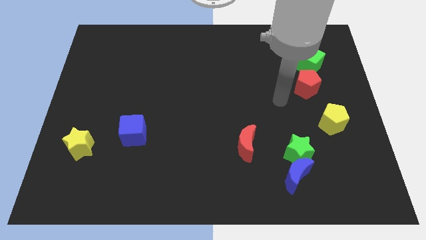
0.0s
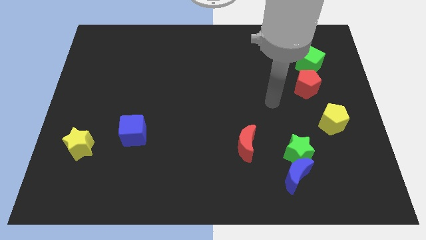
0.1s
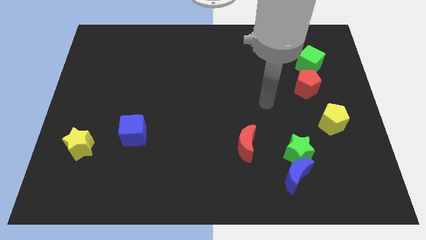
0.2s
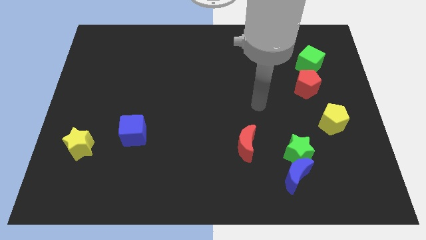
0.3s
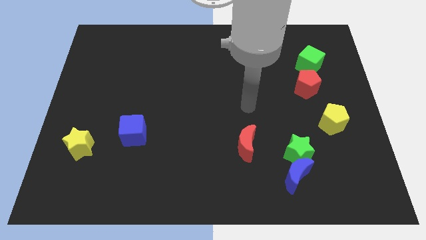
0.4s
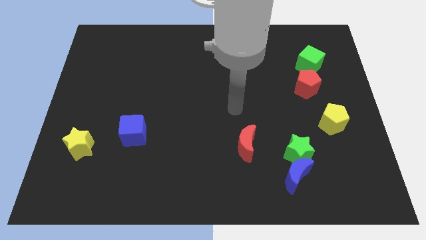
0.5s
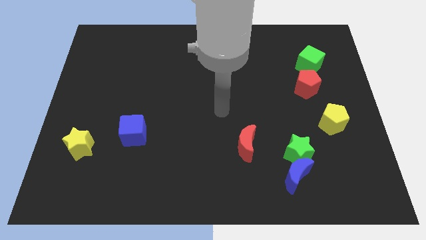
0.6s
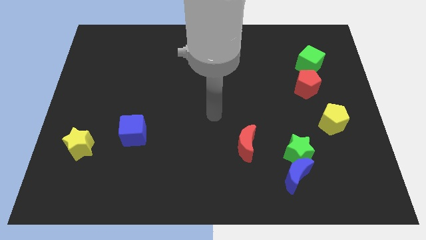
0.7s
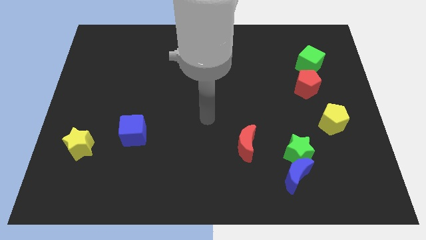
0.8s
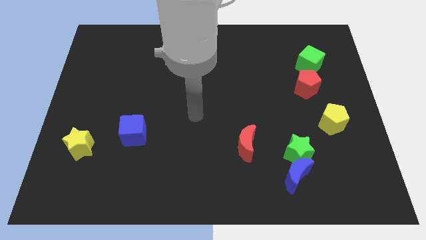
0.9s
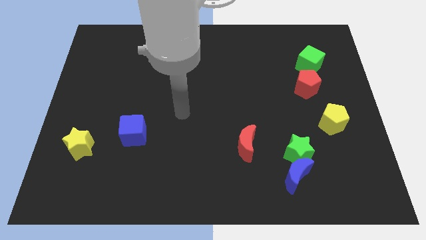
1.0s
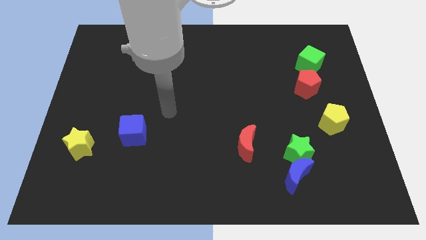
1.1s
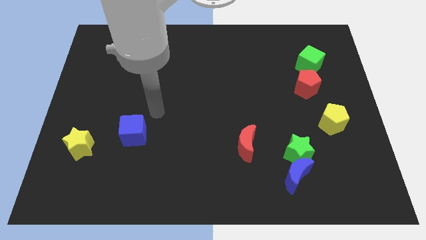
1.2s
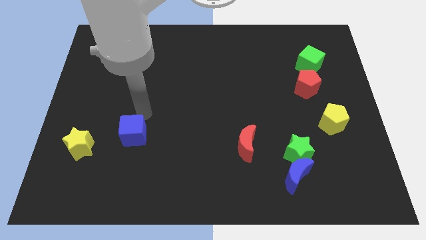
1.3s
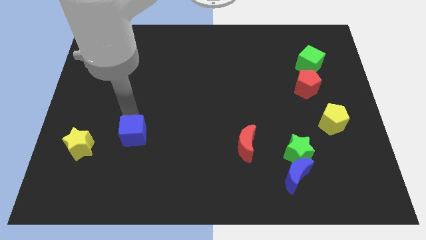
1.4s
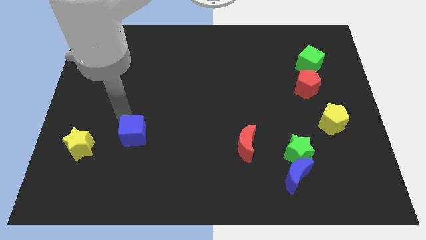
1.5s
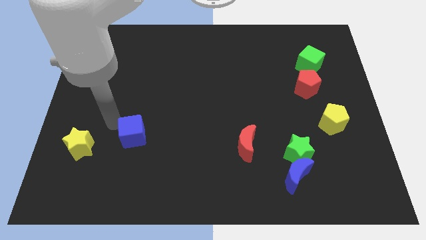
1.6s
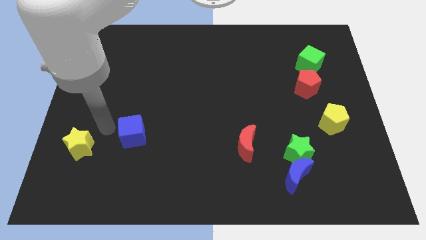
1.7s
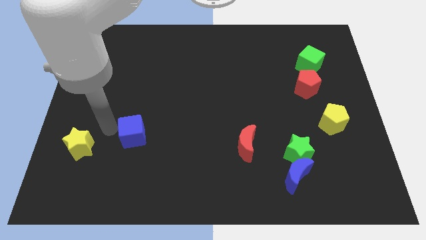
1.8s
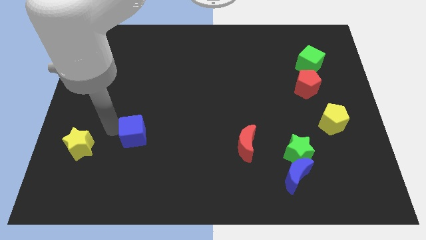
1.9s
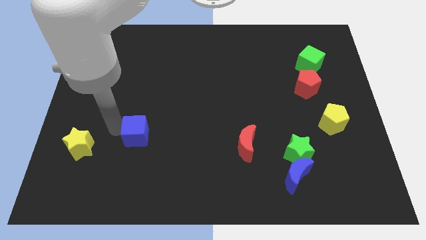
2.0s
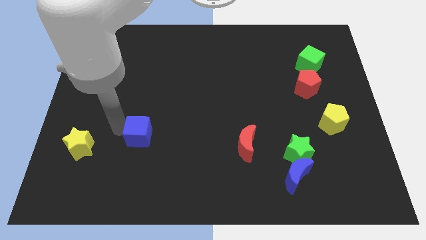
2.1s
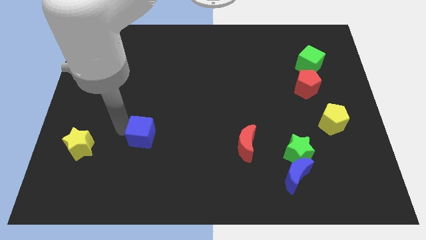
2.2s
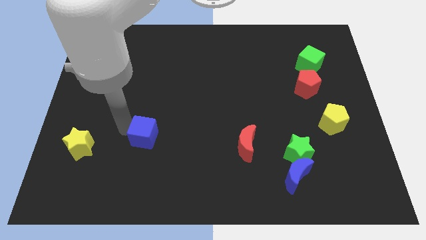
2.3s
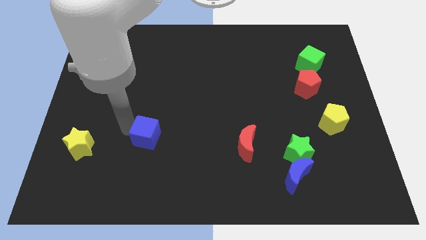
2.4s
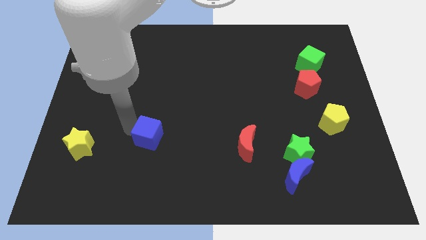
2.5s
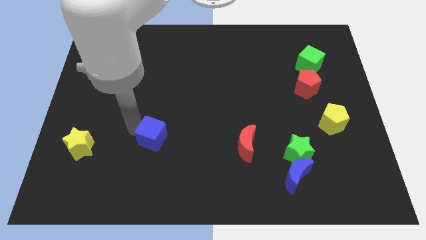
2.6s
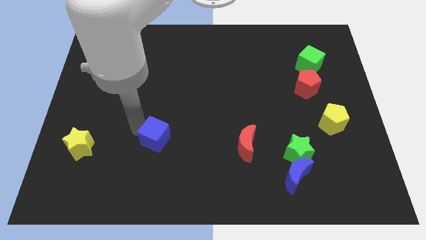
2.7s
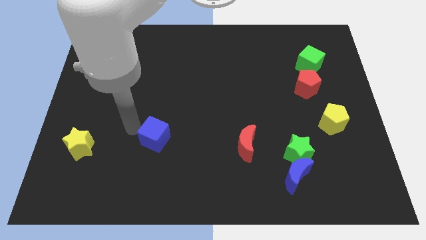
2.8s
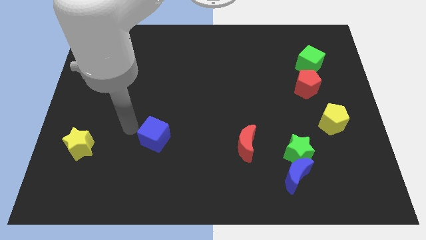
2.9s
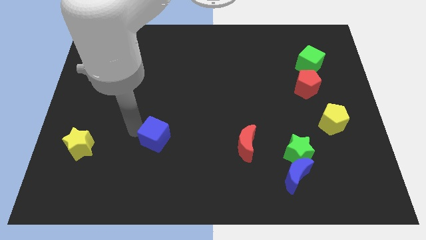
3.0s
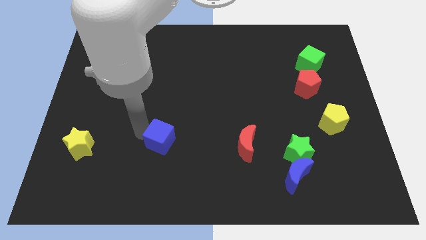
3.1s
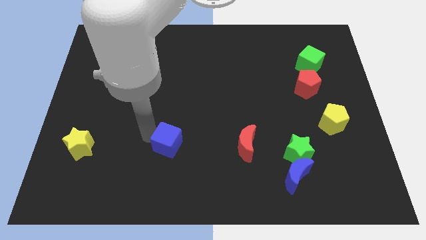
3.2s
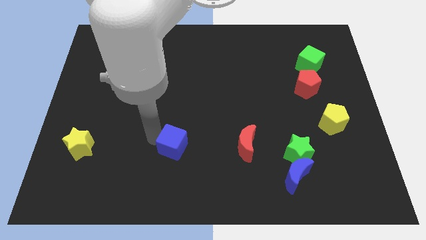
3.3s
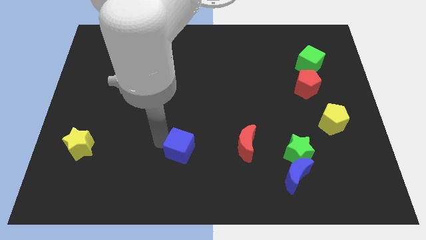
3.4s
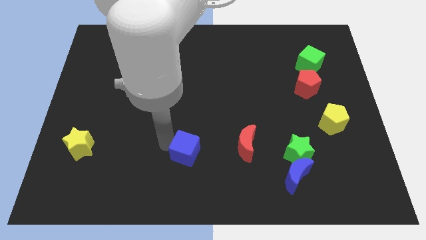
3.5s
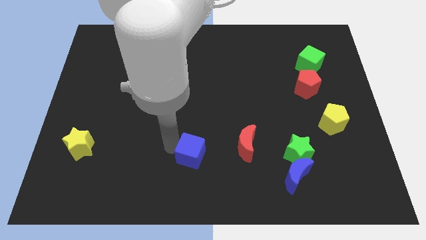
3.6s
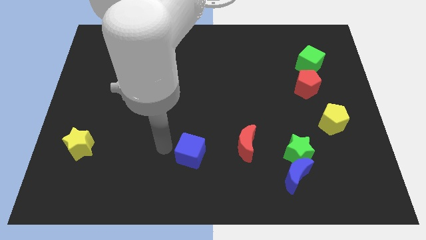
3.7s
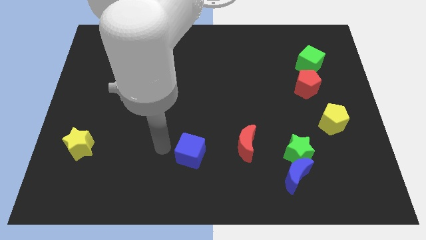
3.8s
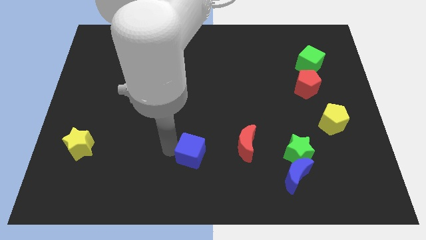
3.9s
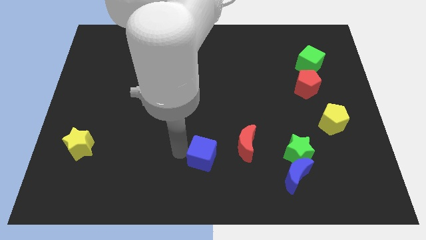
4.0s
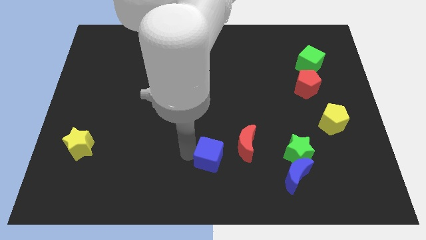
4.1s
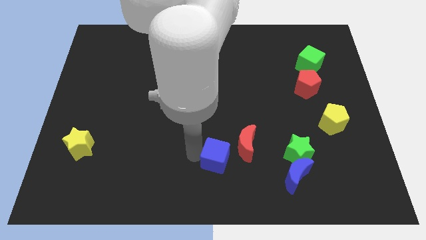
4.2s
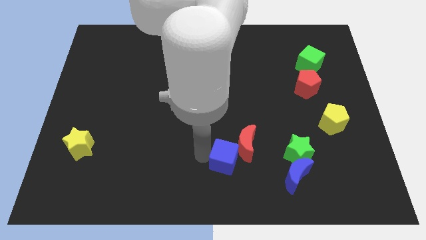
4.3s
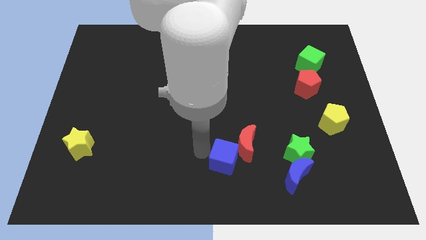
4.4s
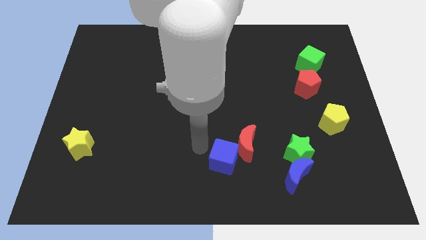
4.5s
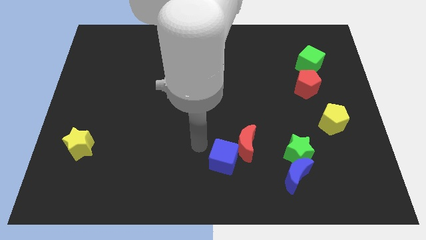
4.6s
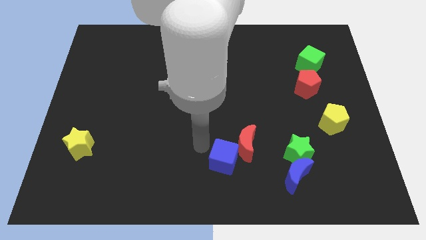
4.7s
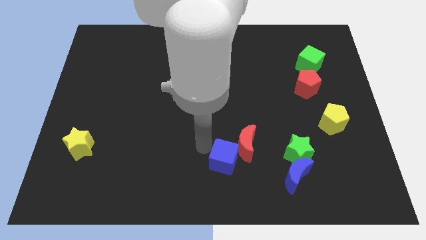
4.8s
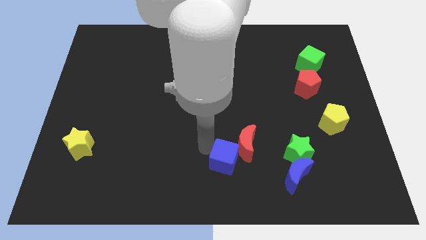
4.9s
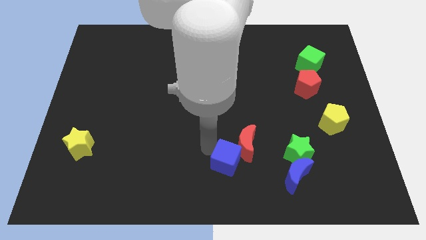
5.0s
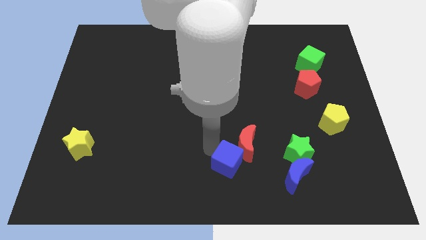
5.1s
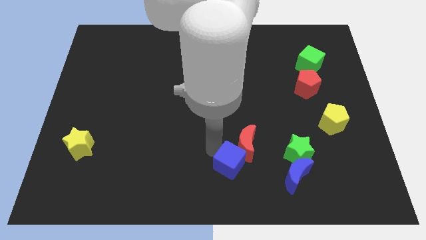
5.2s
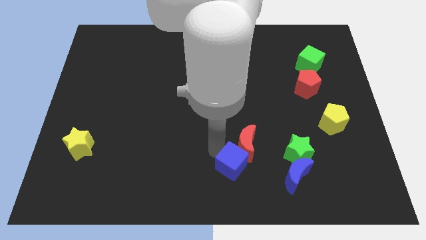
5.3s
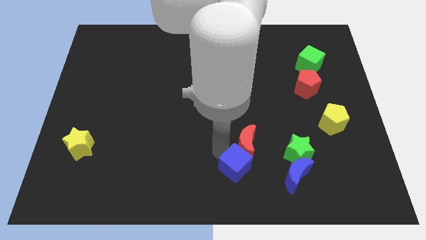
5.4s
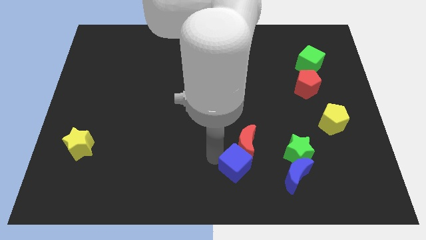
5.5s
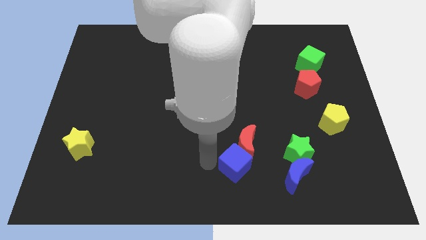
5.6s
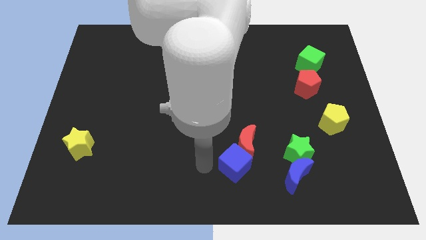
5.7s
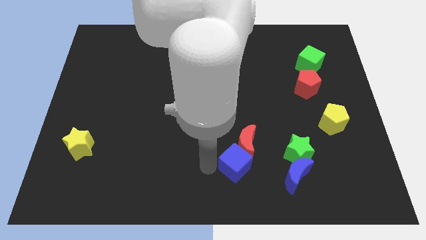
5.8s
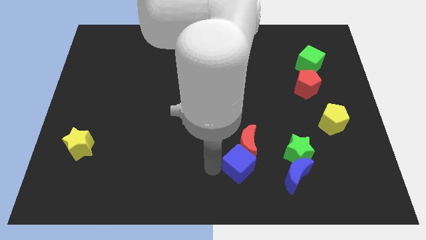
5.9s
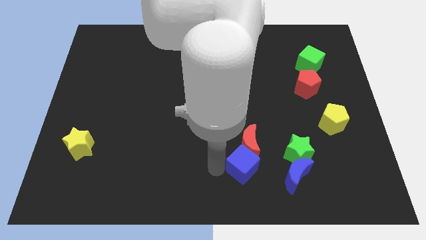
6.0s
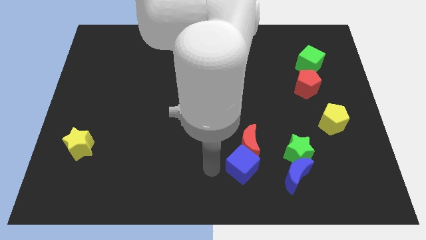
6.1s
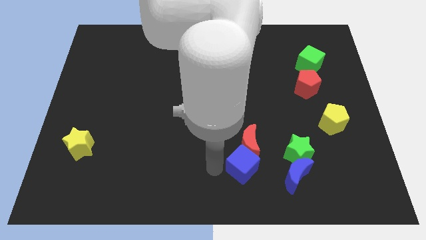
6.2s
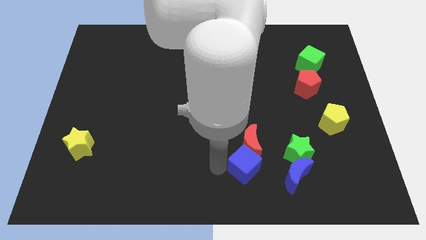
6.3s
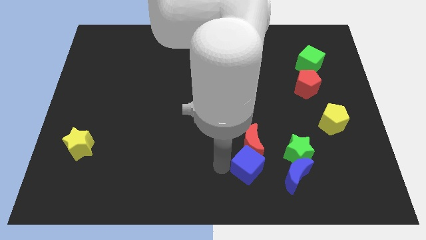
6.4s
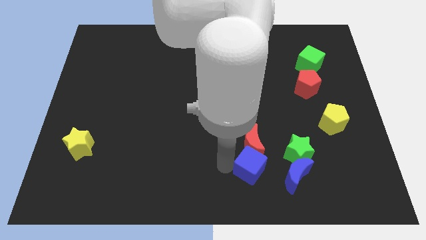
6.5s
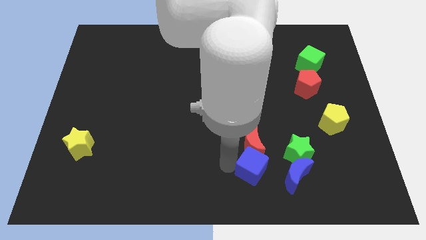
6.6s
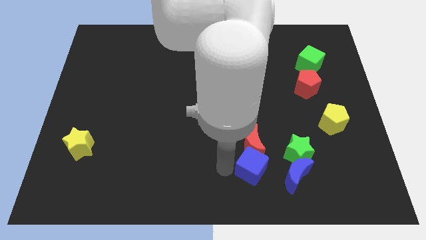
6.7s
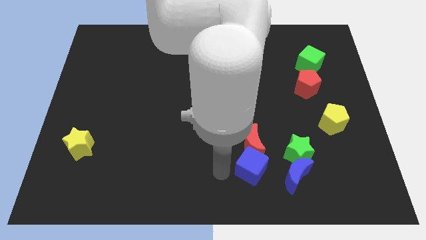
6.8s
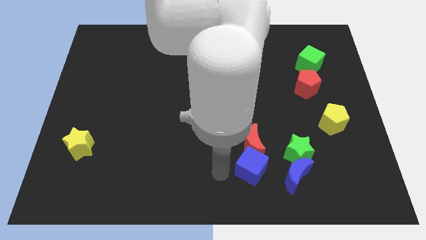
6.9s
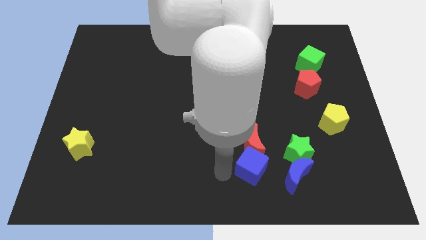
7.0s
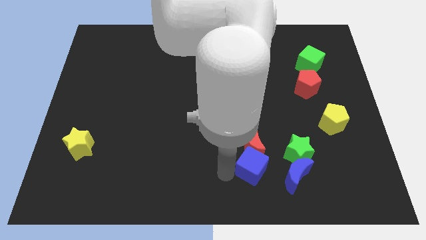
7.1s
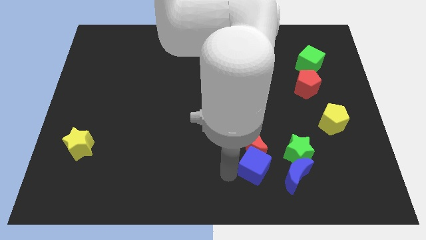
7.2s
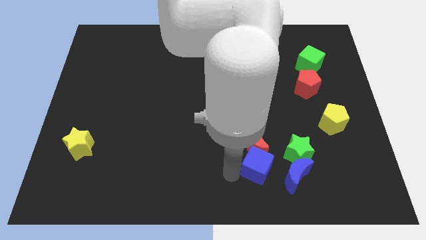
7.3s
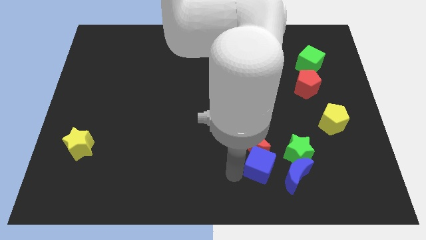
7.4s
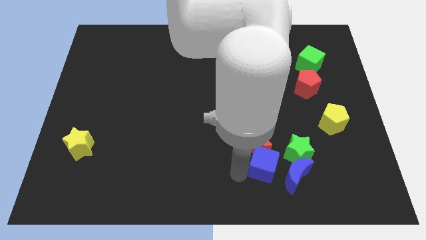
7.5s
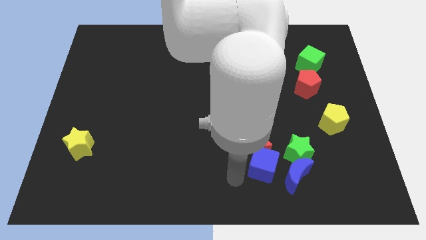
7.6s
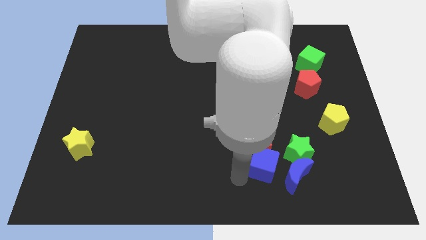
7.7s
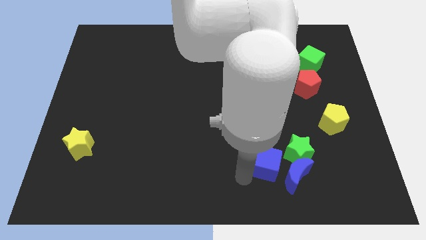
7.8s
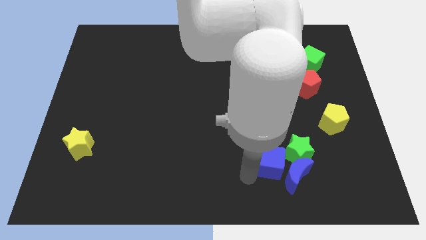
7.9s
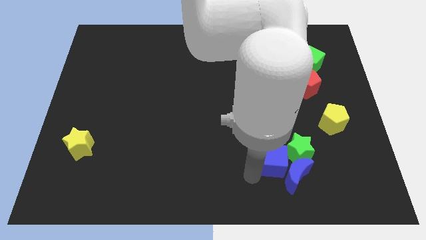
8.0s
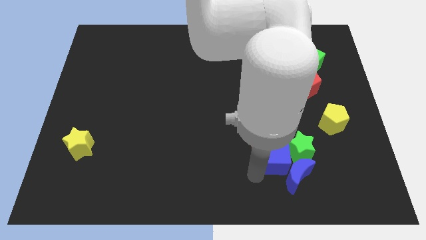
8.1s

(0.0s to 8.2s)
push the blue cube next to the green star
